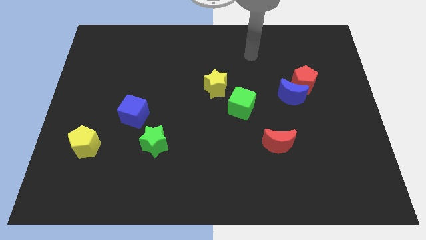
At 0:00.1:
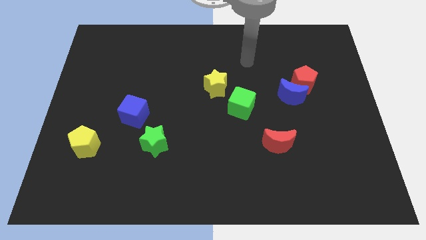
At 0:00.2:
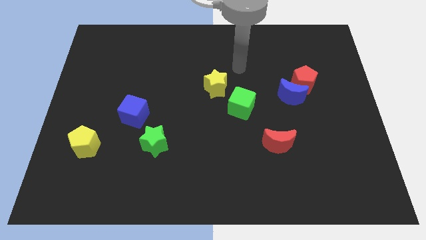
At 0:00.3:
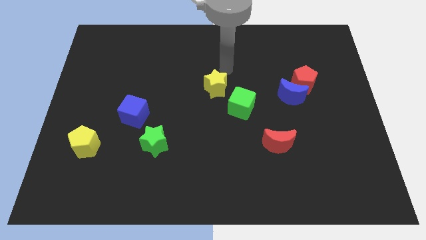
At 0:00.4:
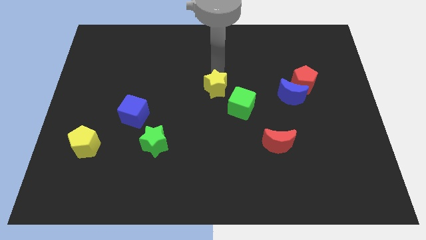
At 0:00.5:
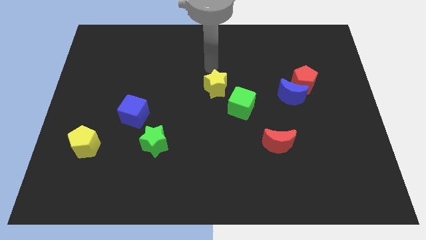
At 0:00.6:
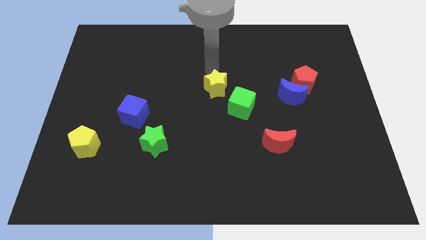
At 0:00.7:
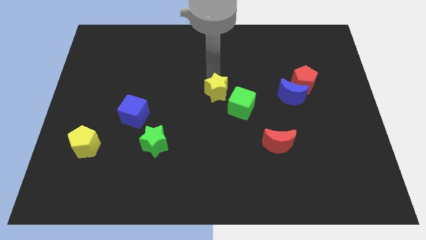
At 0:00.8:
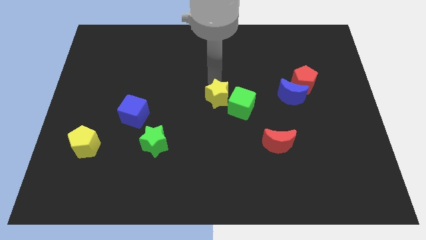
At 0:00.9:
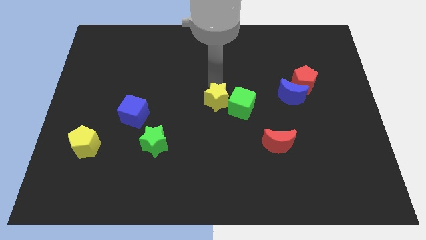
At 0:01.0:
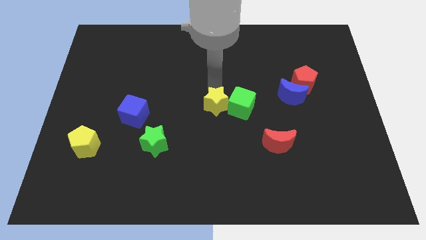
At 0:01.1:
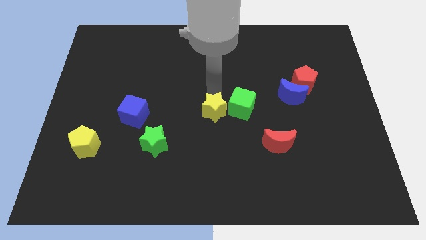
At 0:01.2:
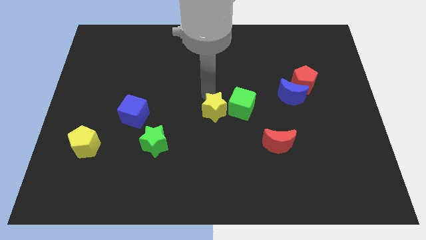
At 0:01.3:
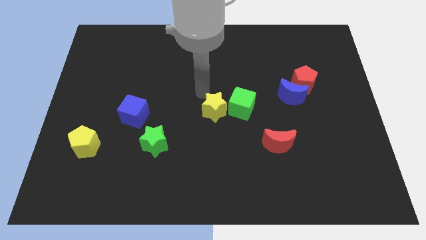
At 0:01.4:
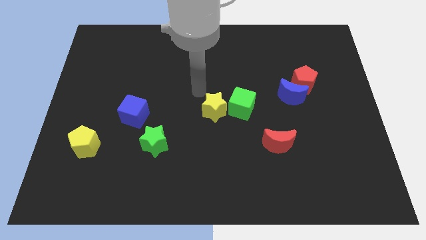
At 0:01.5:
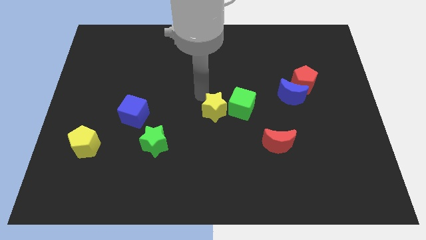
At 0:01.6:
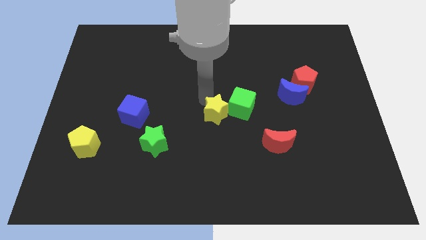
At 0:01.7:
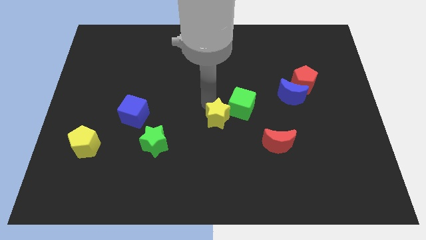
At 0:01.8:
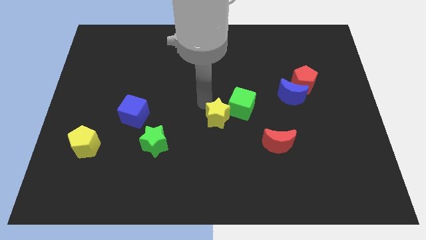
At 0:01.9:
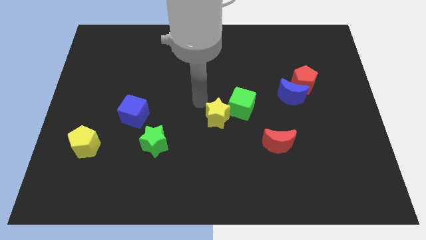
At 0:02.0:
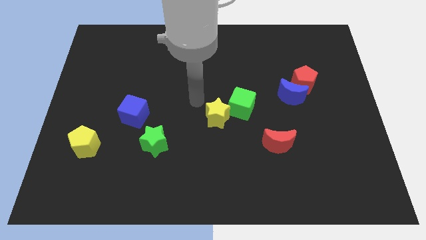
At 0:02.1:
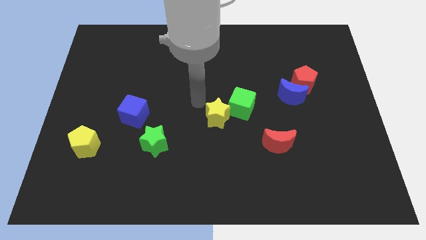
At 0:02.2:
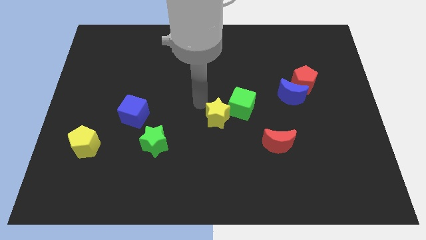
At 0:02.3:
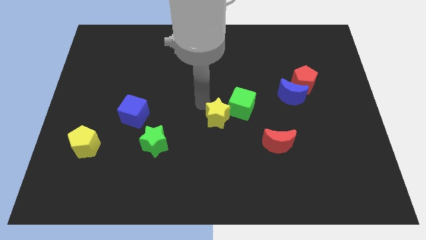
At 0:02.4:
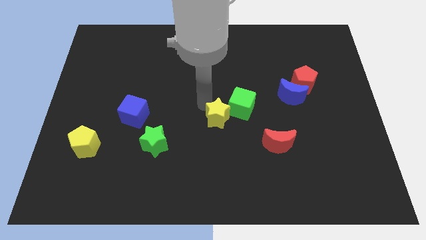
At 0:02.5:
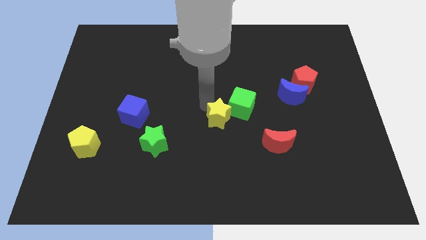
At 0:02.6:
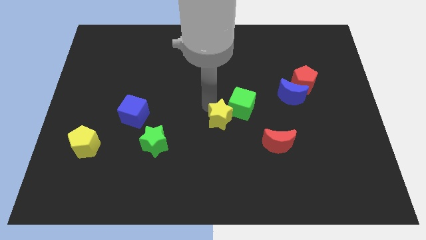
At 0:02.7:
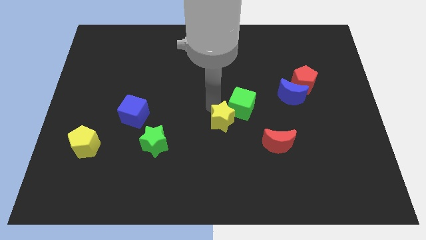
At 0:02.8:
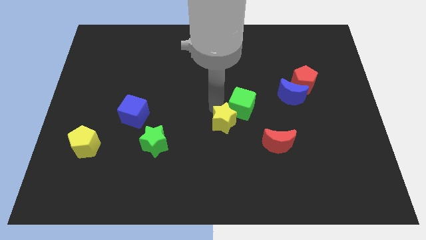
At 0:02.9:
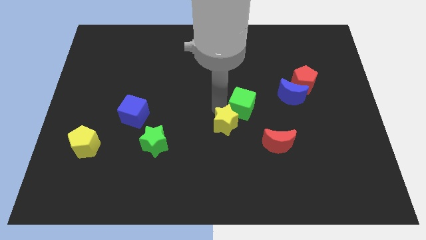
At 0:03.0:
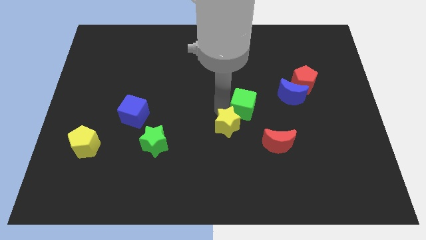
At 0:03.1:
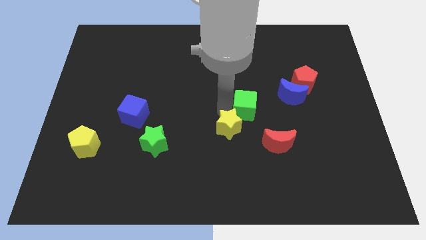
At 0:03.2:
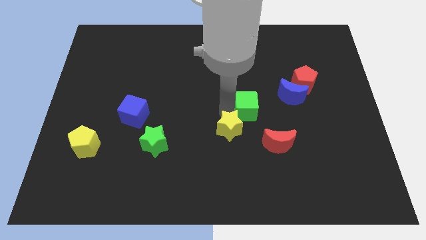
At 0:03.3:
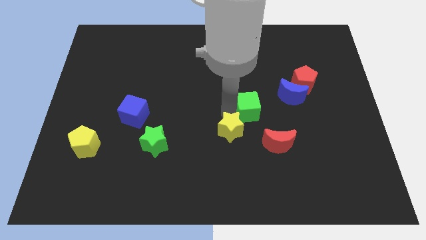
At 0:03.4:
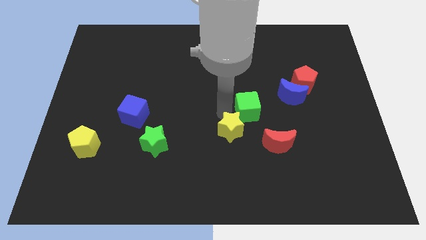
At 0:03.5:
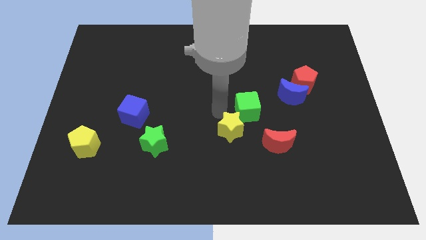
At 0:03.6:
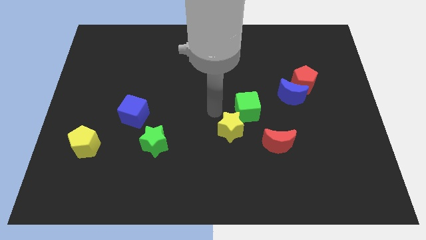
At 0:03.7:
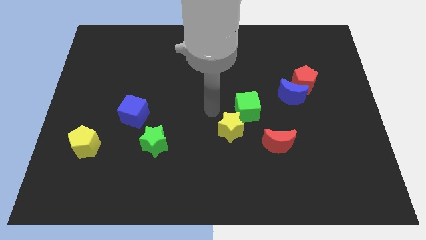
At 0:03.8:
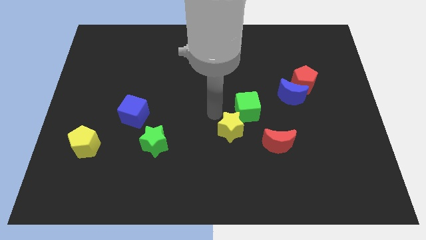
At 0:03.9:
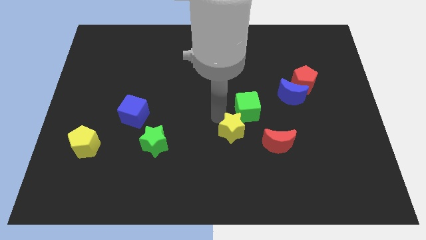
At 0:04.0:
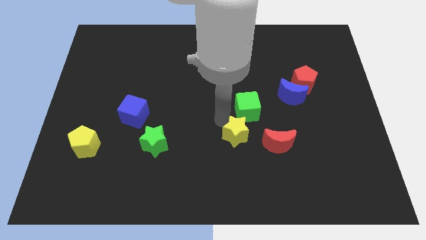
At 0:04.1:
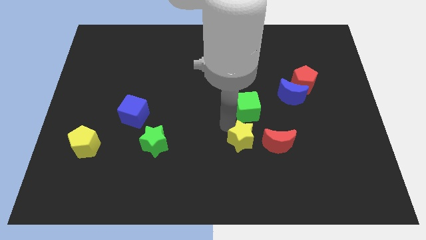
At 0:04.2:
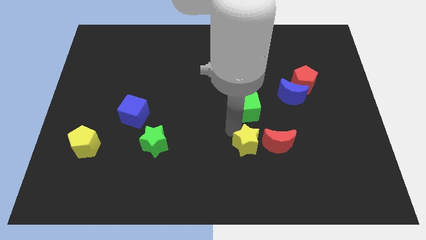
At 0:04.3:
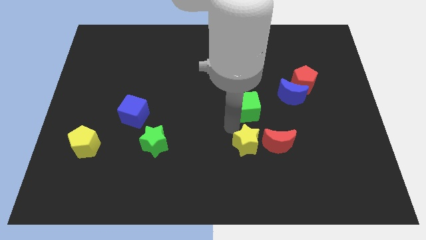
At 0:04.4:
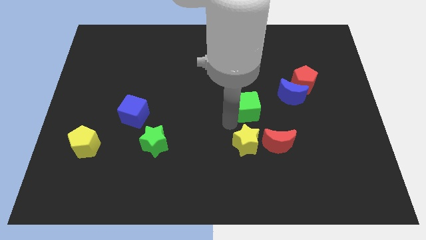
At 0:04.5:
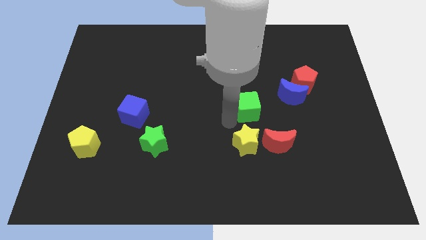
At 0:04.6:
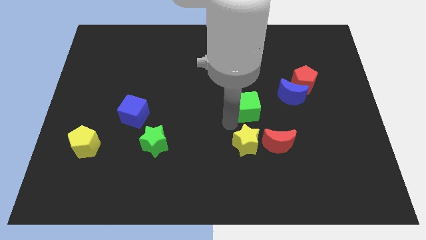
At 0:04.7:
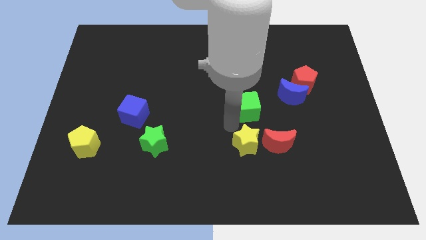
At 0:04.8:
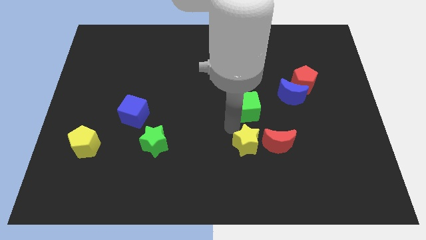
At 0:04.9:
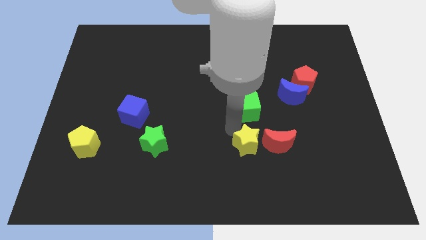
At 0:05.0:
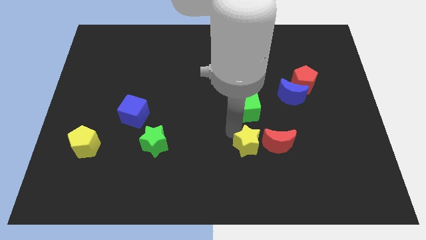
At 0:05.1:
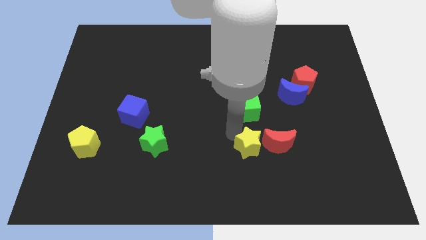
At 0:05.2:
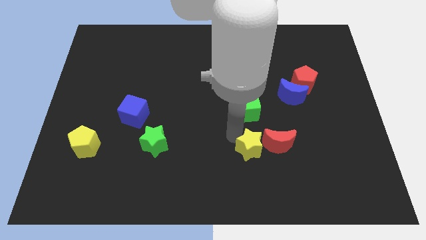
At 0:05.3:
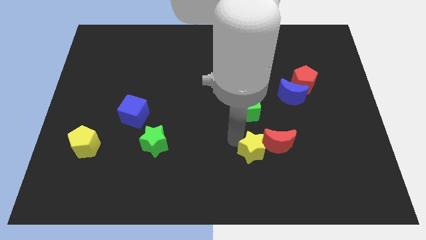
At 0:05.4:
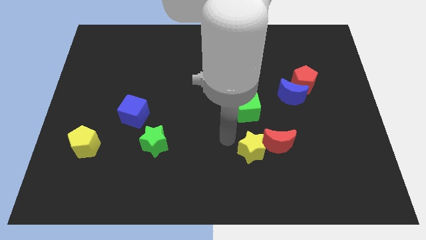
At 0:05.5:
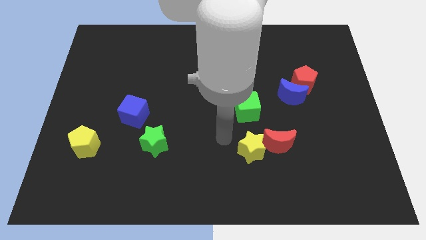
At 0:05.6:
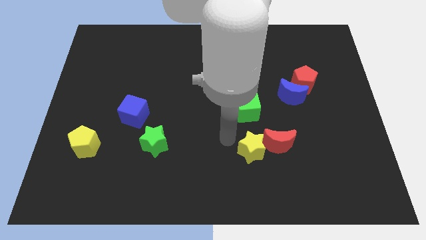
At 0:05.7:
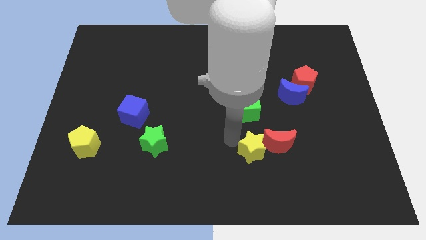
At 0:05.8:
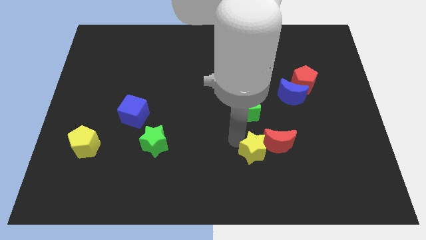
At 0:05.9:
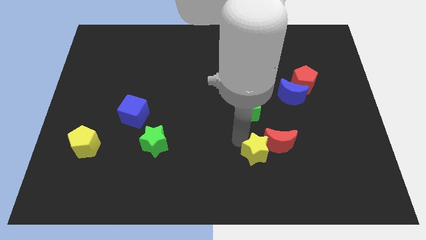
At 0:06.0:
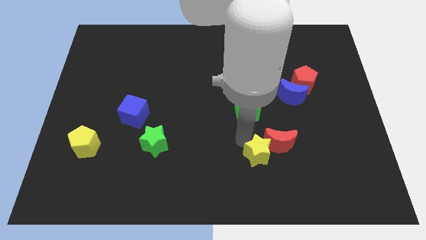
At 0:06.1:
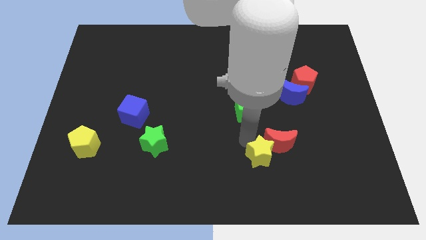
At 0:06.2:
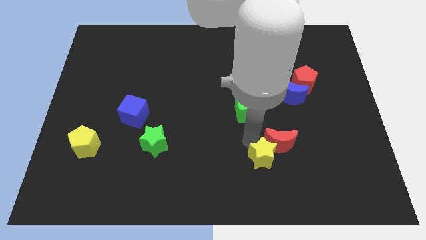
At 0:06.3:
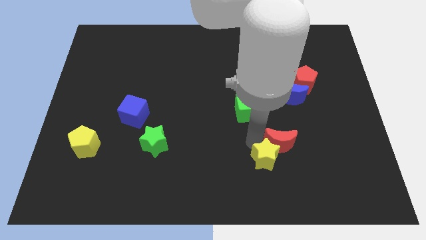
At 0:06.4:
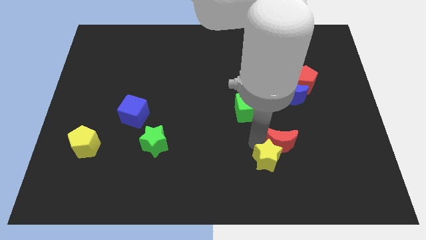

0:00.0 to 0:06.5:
push the yellow star downwards and then right

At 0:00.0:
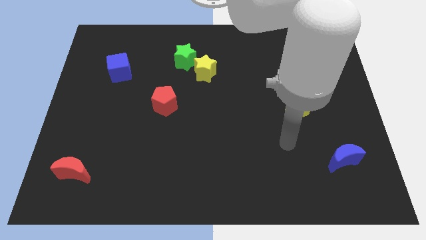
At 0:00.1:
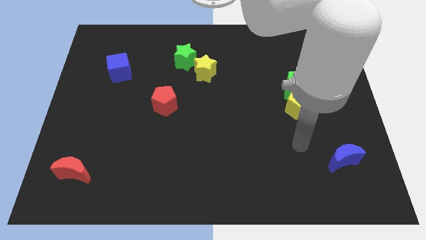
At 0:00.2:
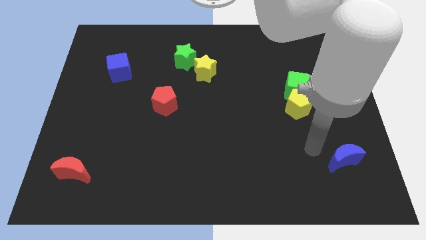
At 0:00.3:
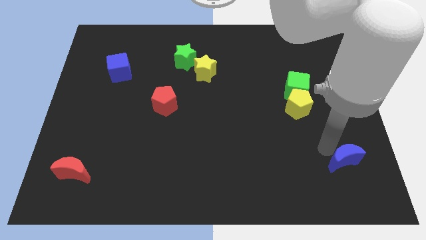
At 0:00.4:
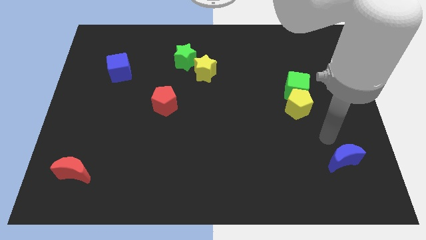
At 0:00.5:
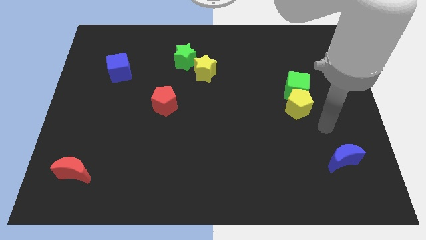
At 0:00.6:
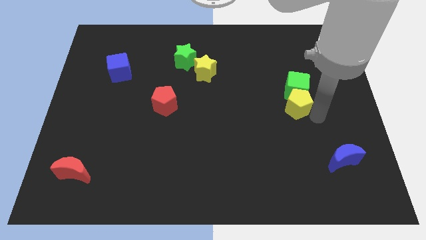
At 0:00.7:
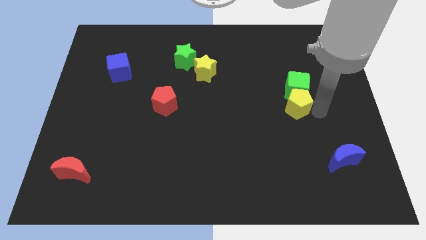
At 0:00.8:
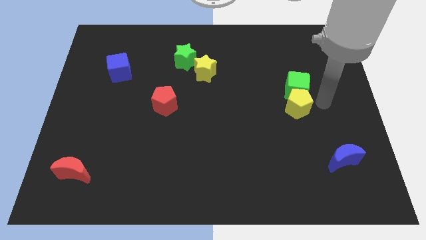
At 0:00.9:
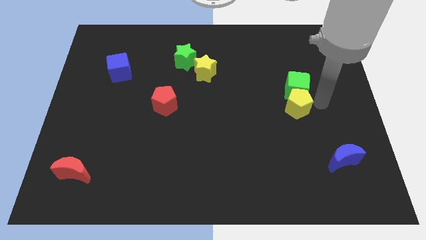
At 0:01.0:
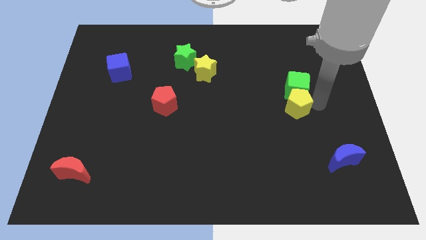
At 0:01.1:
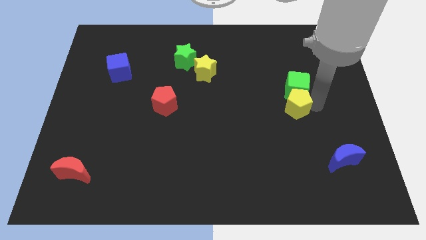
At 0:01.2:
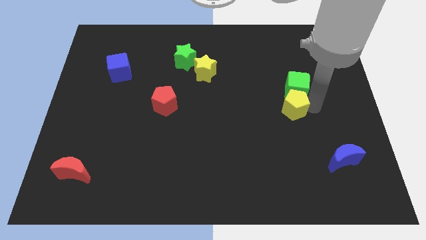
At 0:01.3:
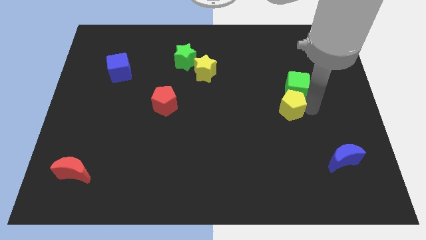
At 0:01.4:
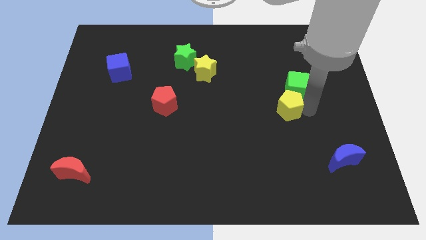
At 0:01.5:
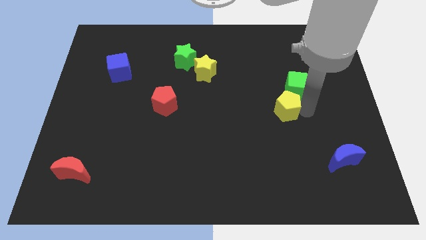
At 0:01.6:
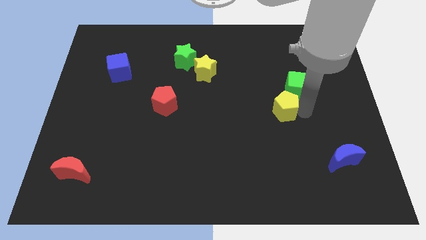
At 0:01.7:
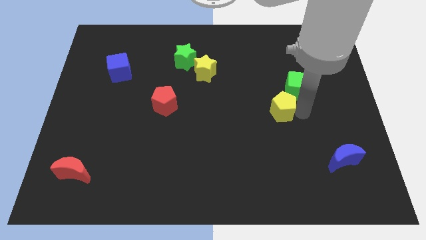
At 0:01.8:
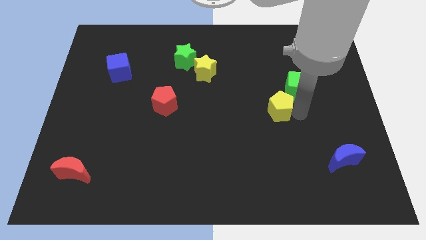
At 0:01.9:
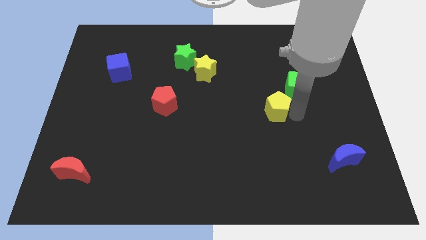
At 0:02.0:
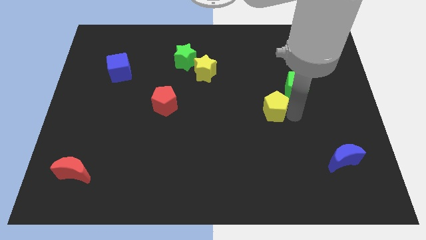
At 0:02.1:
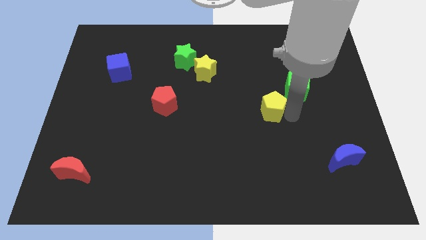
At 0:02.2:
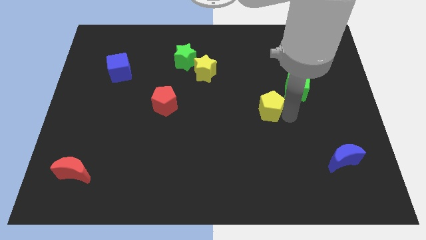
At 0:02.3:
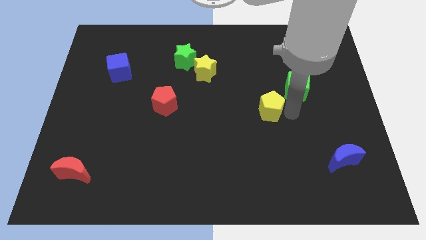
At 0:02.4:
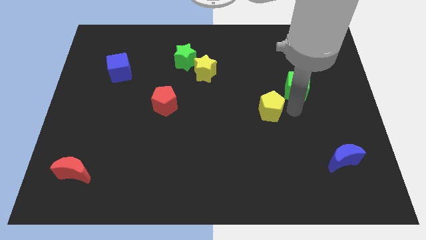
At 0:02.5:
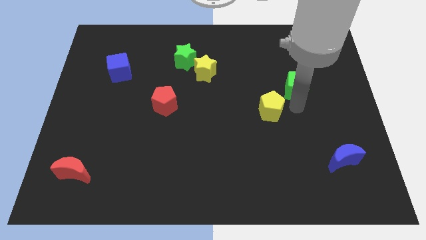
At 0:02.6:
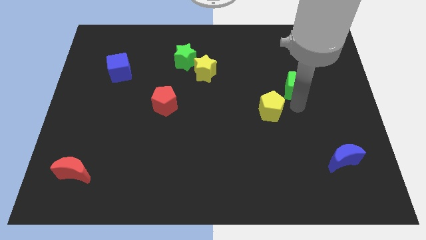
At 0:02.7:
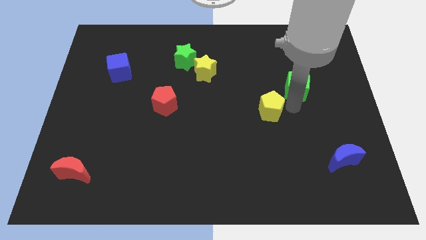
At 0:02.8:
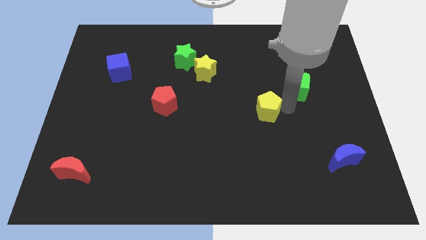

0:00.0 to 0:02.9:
slightly slide the yellow pentagon to the left
